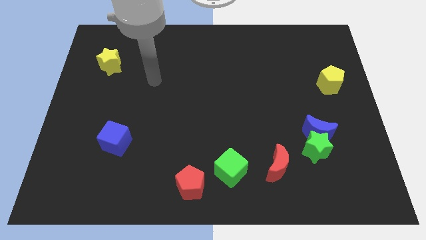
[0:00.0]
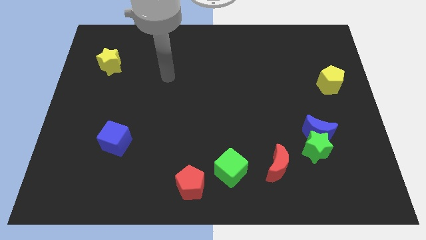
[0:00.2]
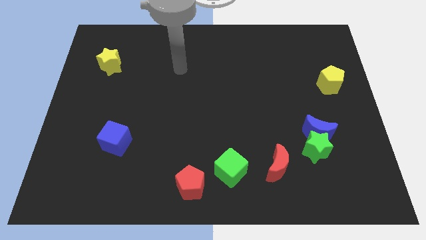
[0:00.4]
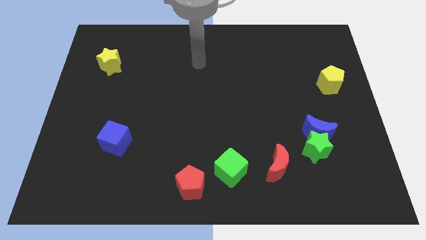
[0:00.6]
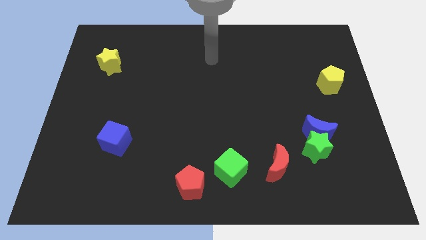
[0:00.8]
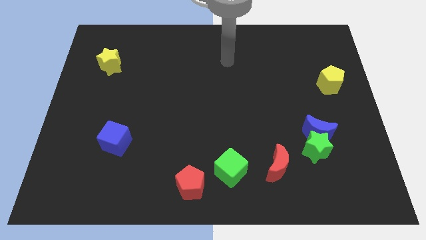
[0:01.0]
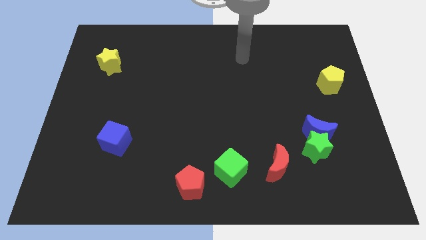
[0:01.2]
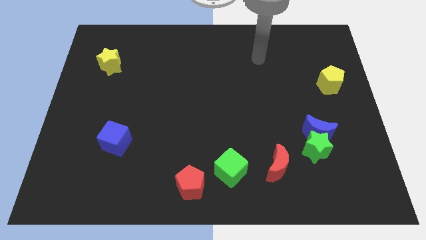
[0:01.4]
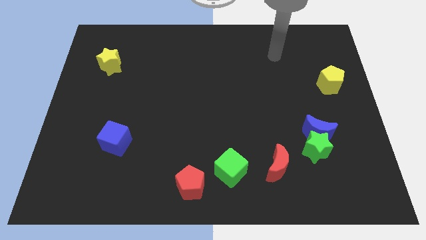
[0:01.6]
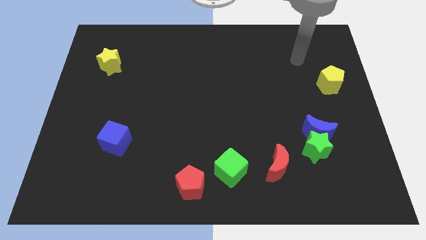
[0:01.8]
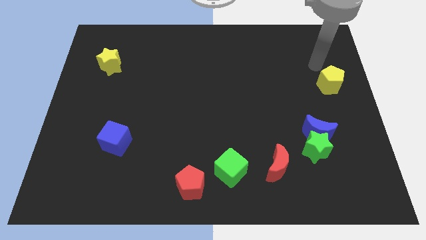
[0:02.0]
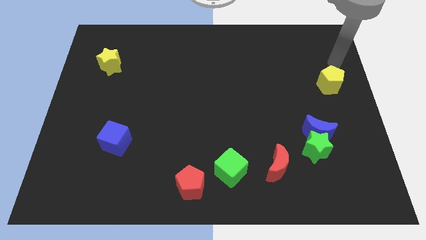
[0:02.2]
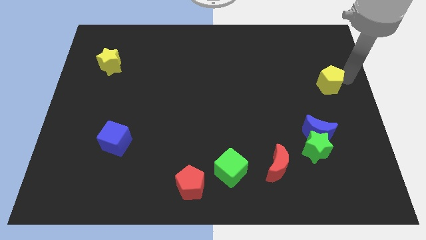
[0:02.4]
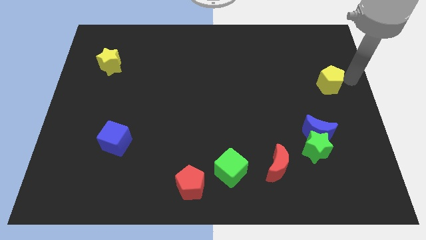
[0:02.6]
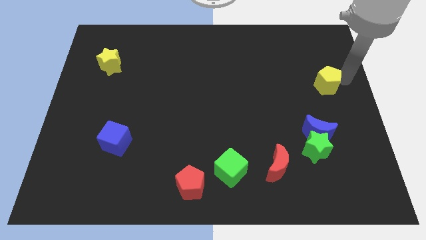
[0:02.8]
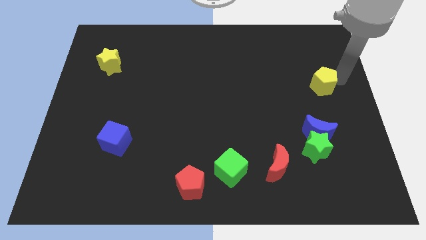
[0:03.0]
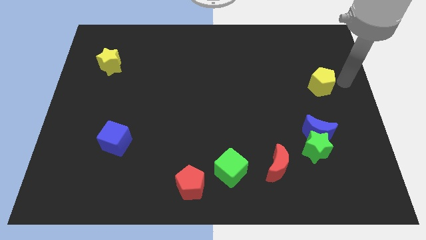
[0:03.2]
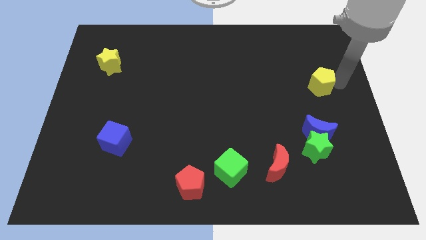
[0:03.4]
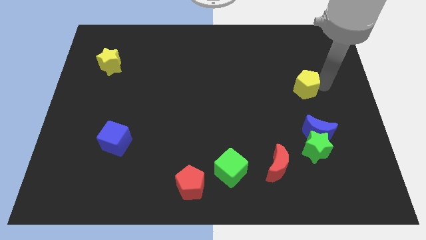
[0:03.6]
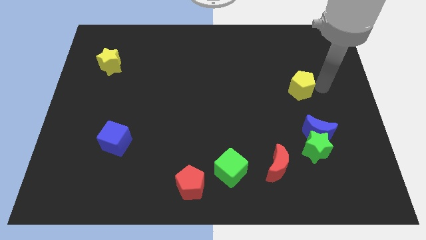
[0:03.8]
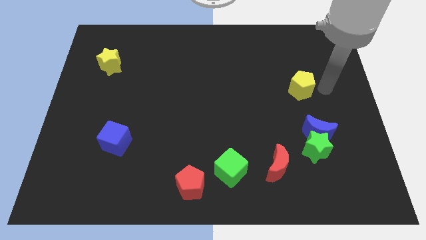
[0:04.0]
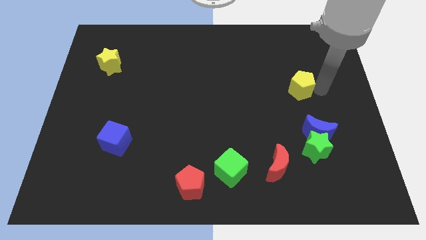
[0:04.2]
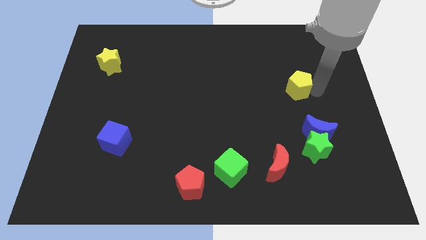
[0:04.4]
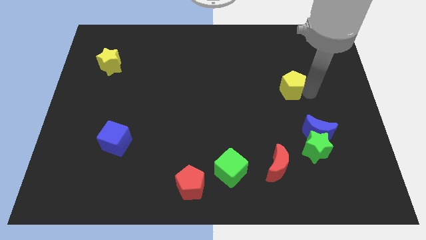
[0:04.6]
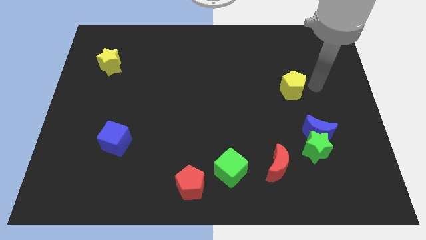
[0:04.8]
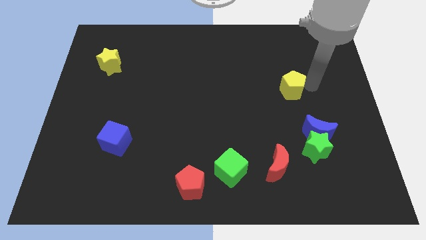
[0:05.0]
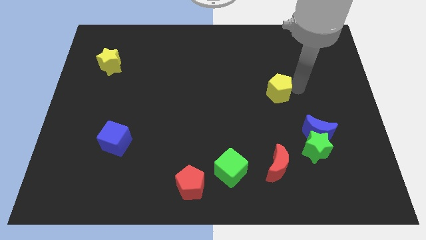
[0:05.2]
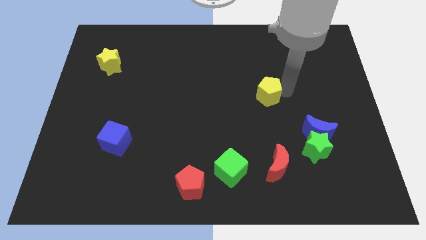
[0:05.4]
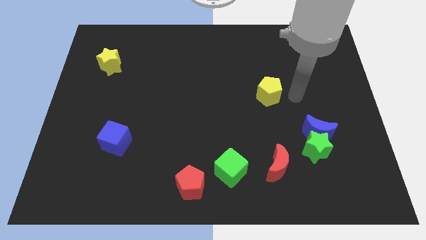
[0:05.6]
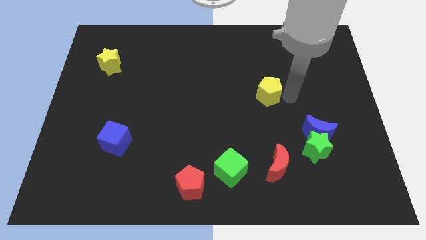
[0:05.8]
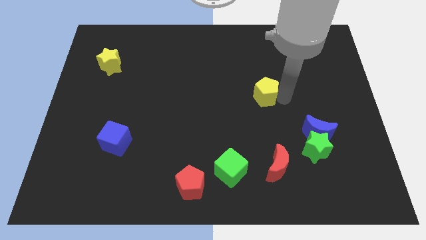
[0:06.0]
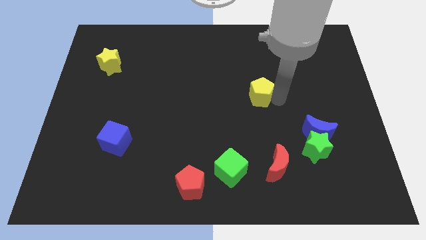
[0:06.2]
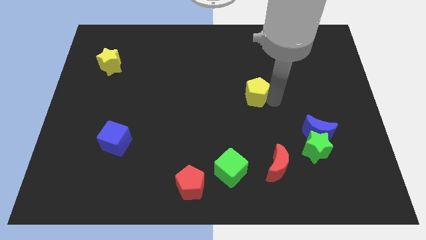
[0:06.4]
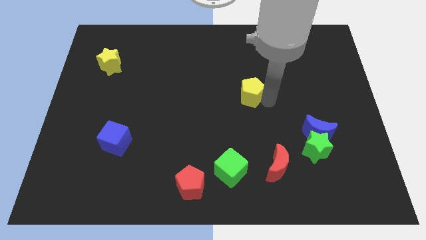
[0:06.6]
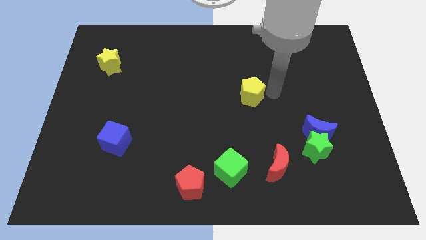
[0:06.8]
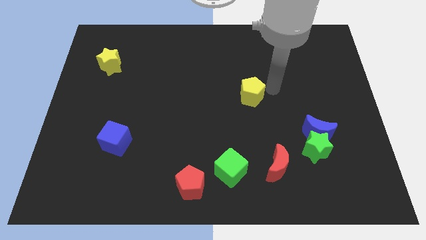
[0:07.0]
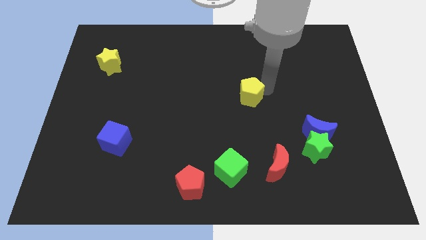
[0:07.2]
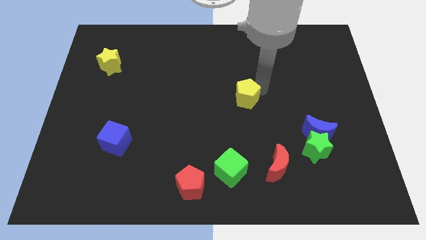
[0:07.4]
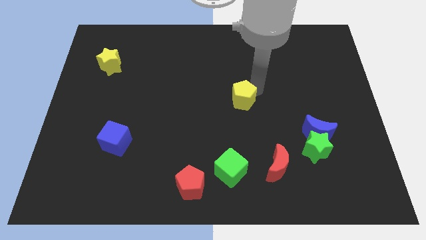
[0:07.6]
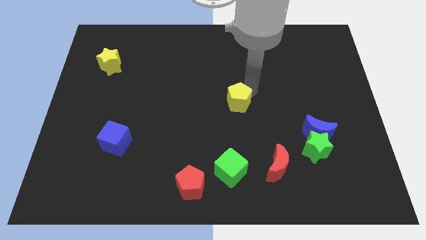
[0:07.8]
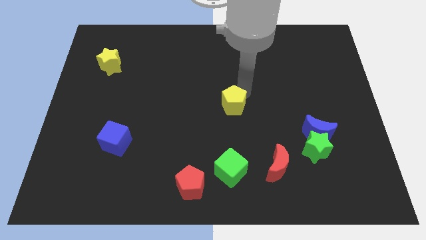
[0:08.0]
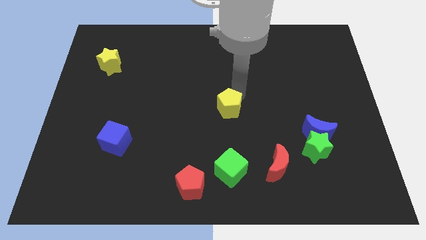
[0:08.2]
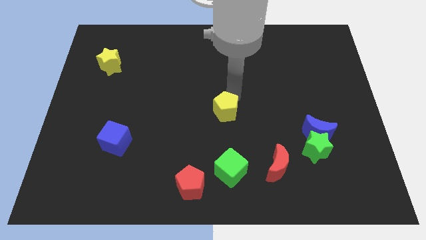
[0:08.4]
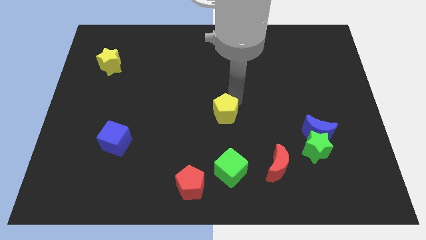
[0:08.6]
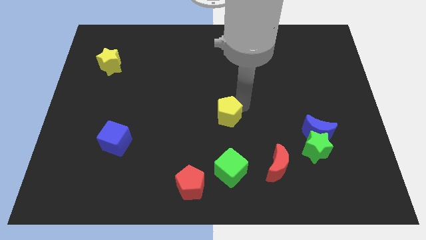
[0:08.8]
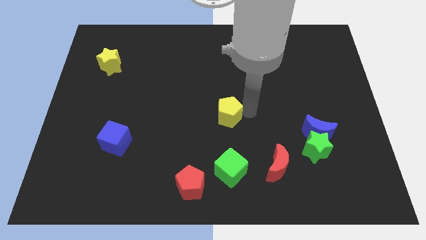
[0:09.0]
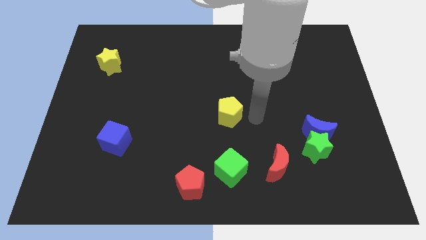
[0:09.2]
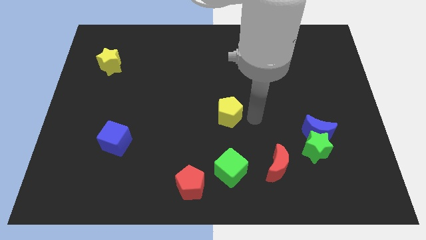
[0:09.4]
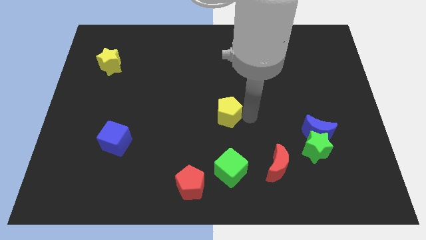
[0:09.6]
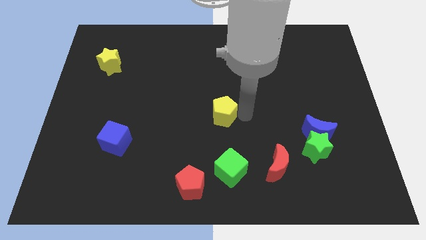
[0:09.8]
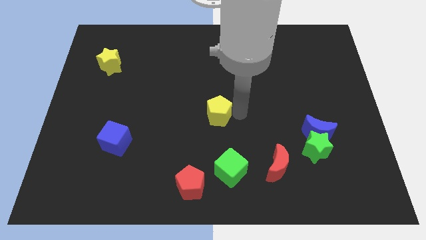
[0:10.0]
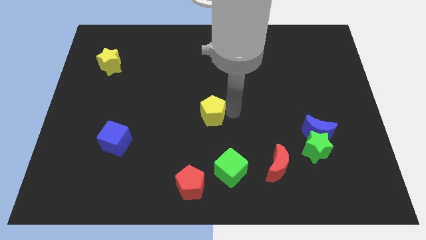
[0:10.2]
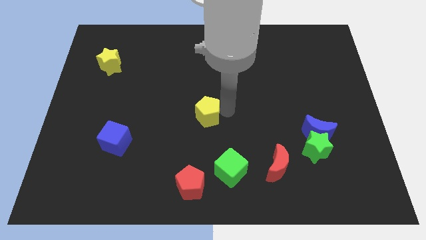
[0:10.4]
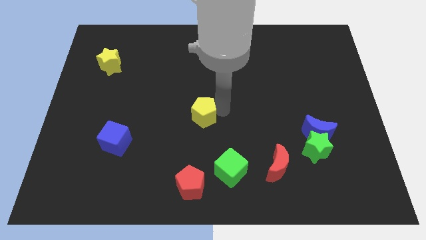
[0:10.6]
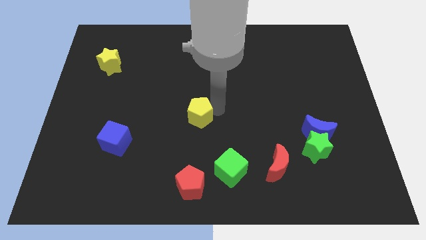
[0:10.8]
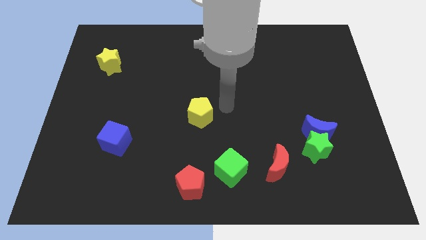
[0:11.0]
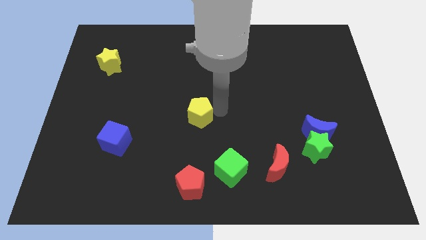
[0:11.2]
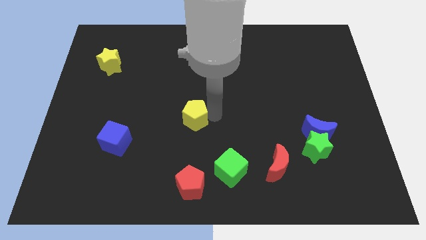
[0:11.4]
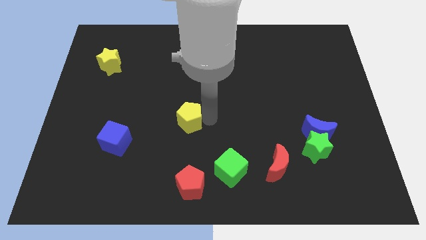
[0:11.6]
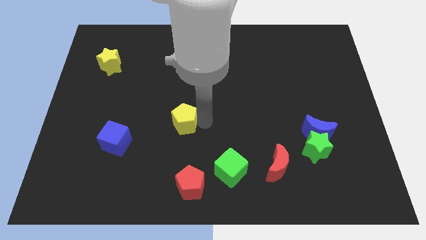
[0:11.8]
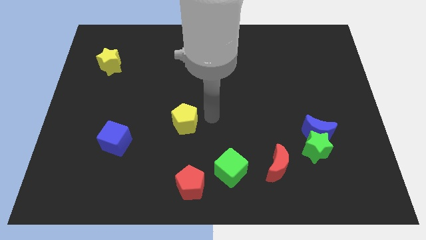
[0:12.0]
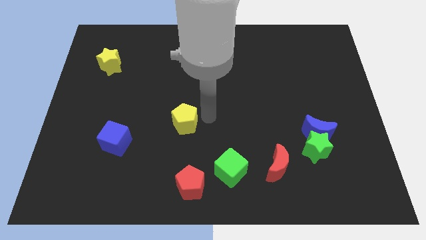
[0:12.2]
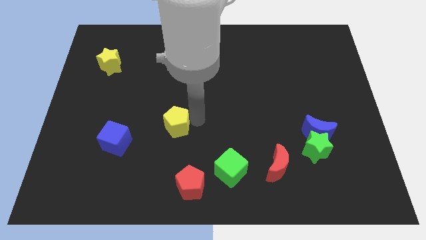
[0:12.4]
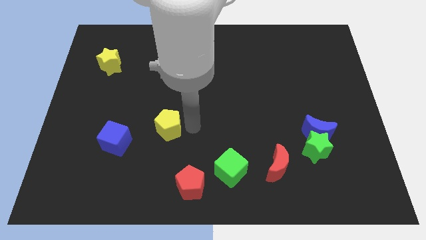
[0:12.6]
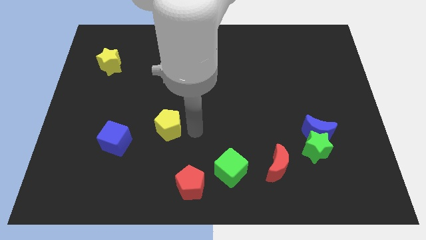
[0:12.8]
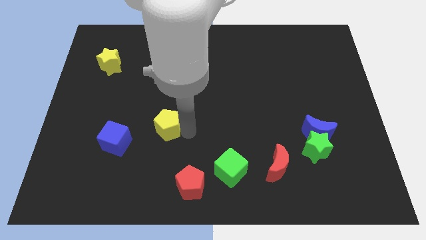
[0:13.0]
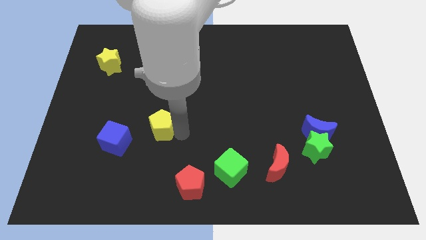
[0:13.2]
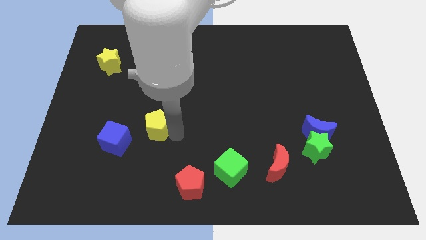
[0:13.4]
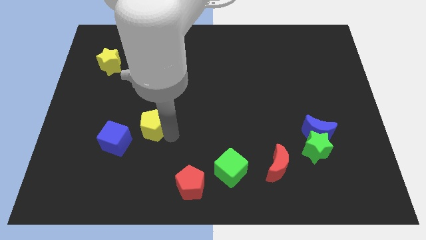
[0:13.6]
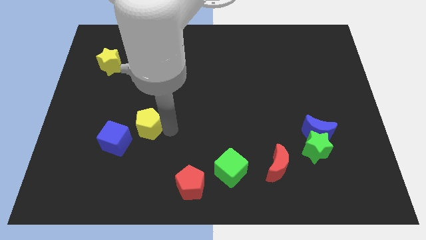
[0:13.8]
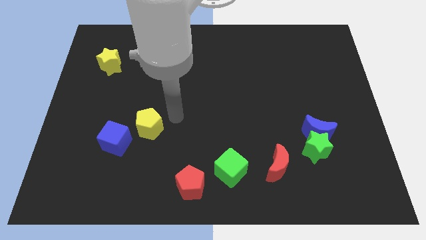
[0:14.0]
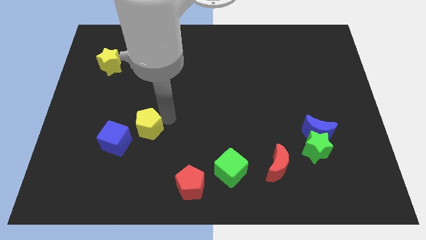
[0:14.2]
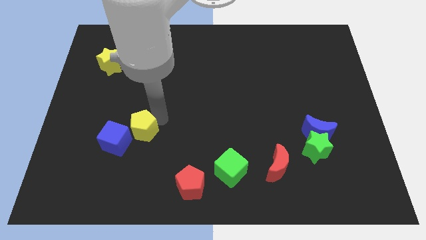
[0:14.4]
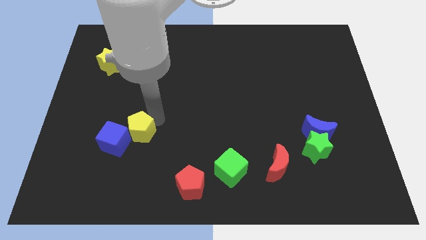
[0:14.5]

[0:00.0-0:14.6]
slide the yellow pentagon close to the blue cube

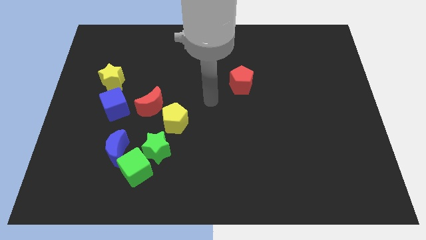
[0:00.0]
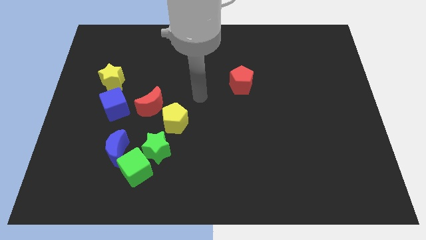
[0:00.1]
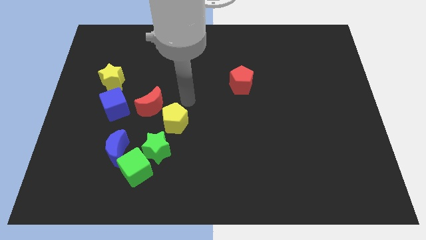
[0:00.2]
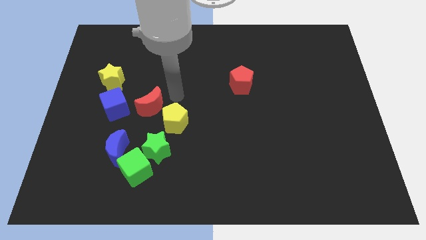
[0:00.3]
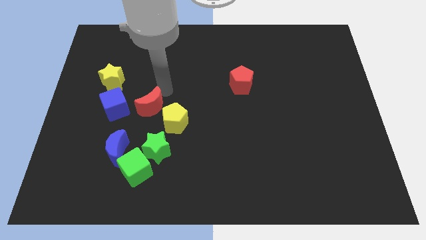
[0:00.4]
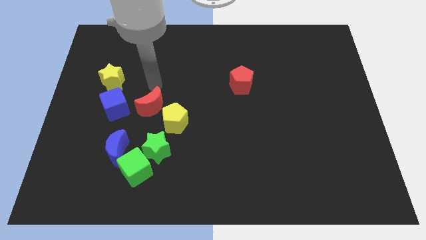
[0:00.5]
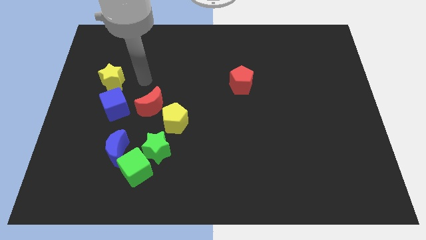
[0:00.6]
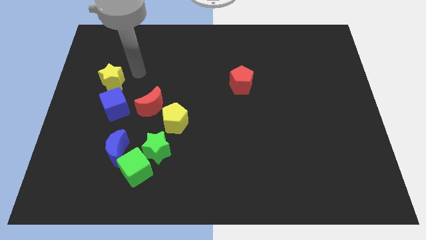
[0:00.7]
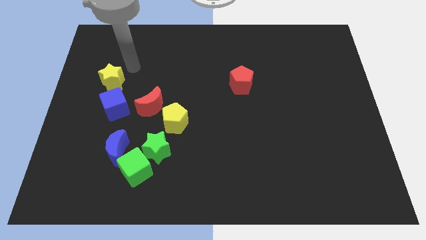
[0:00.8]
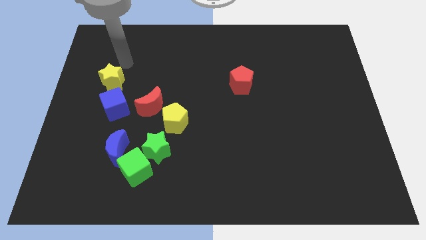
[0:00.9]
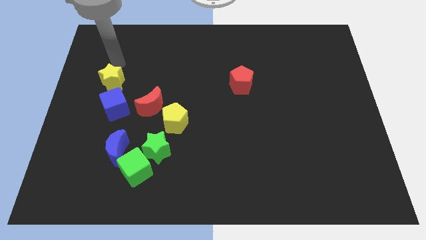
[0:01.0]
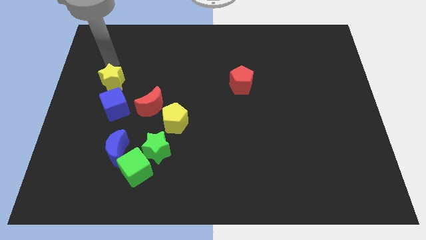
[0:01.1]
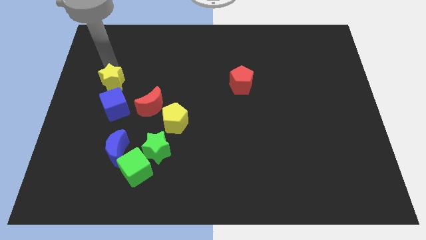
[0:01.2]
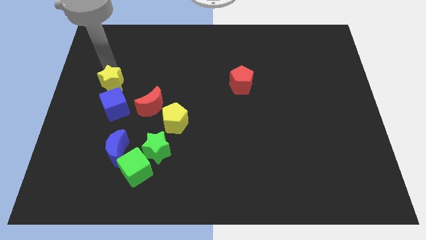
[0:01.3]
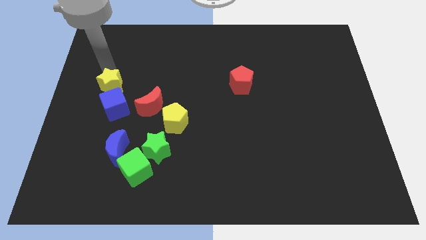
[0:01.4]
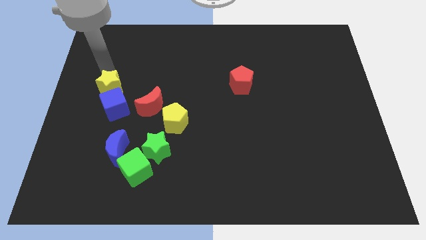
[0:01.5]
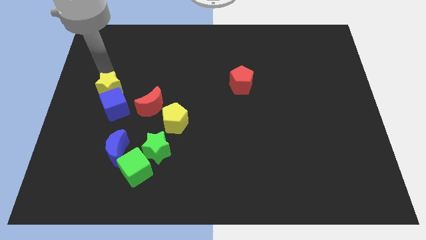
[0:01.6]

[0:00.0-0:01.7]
move the yellow star to the blue cube
